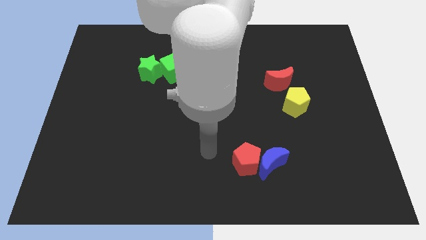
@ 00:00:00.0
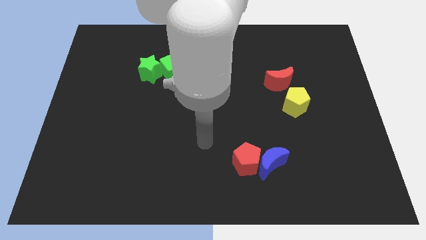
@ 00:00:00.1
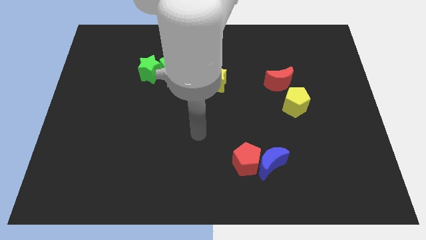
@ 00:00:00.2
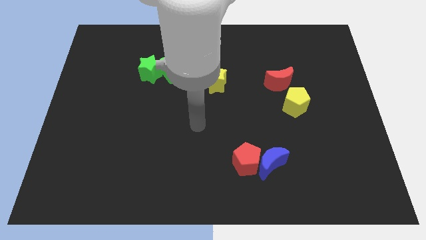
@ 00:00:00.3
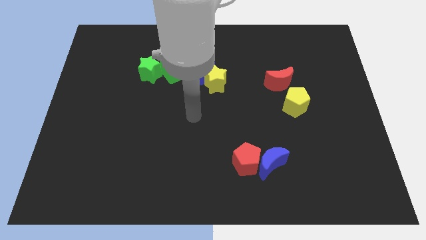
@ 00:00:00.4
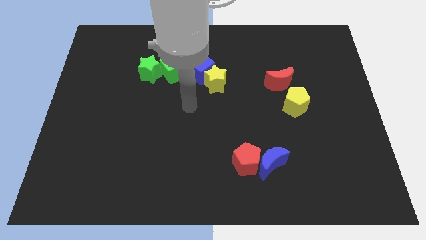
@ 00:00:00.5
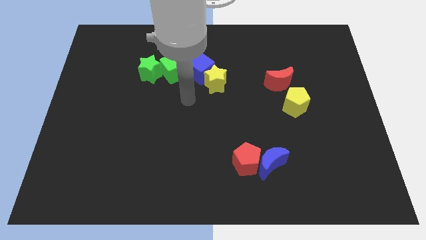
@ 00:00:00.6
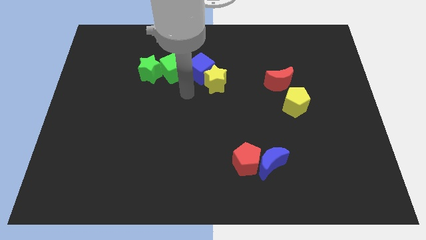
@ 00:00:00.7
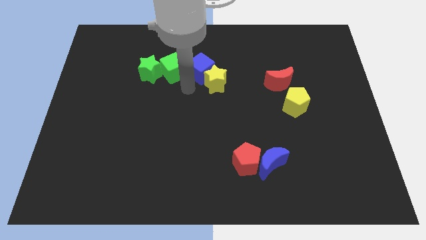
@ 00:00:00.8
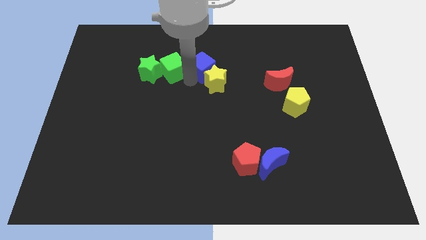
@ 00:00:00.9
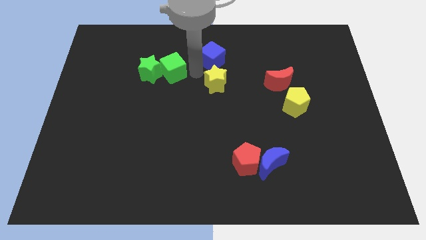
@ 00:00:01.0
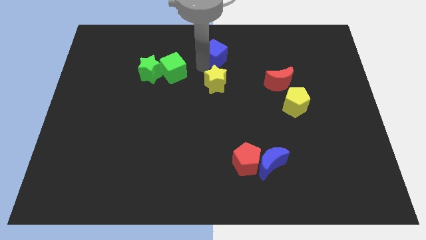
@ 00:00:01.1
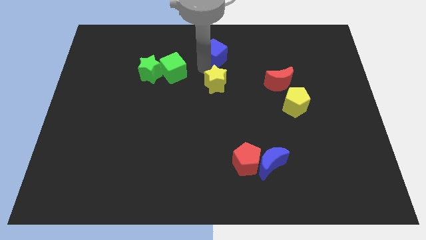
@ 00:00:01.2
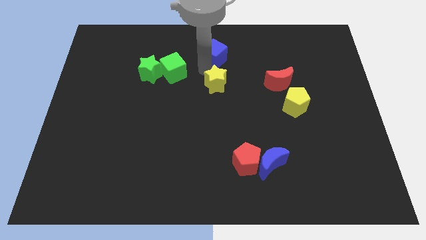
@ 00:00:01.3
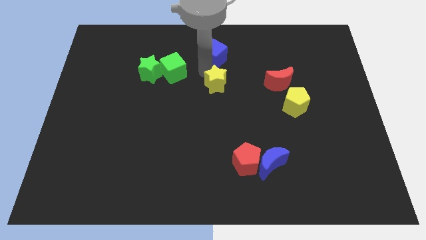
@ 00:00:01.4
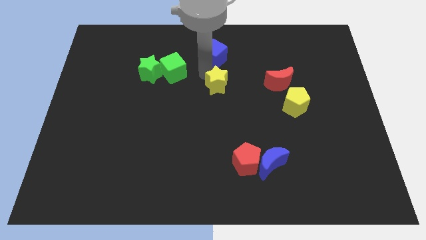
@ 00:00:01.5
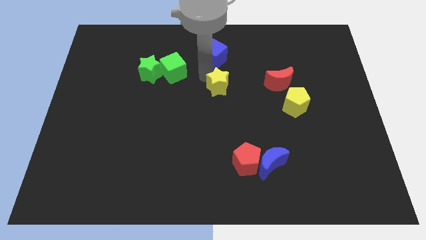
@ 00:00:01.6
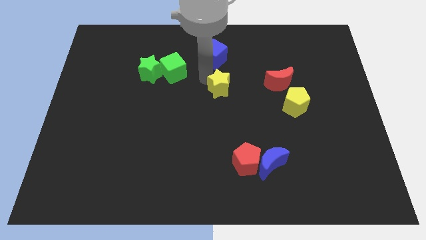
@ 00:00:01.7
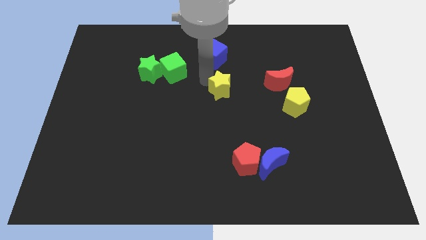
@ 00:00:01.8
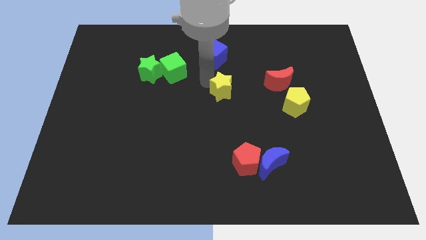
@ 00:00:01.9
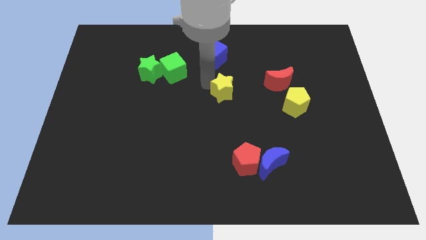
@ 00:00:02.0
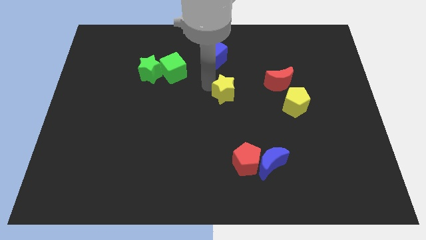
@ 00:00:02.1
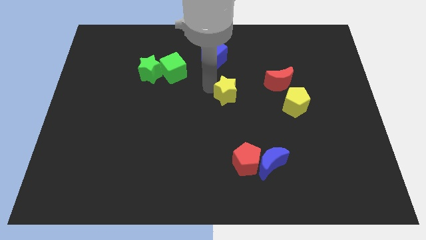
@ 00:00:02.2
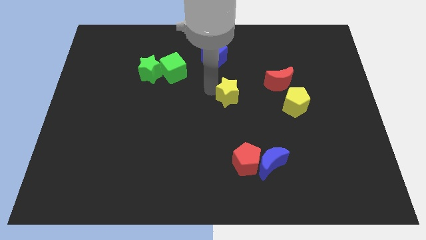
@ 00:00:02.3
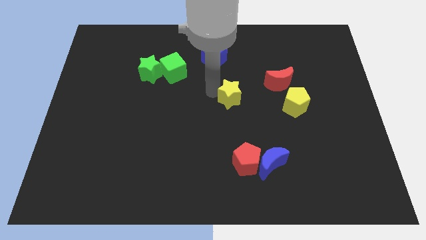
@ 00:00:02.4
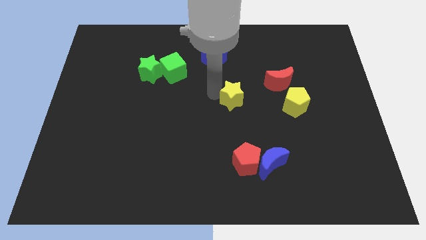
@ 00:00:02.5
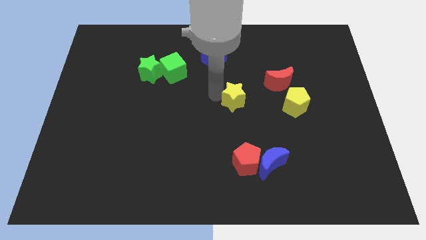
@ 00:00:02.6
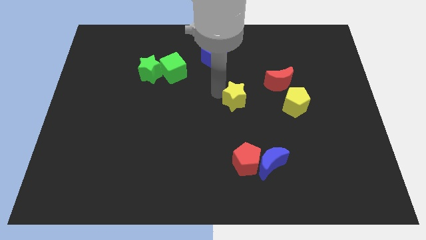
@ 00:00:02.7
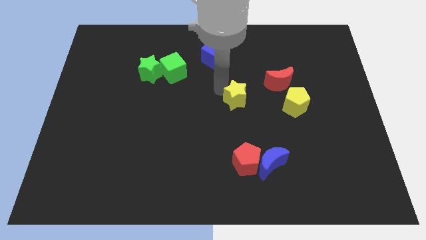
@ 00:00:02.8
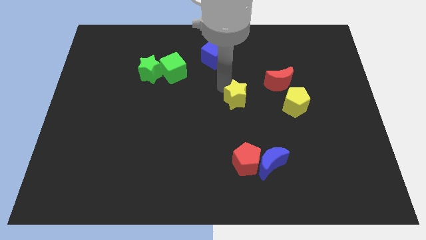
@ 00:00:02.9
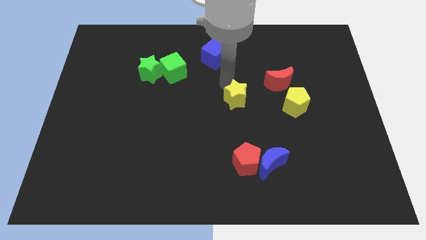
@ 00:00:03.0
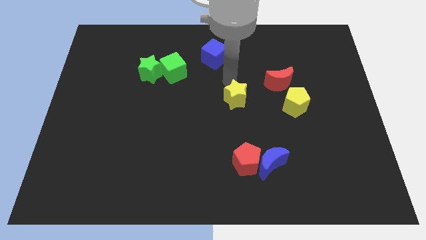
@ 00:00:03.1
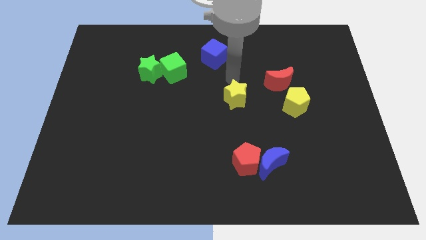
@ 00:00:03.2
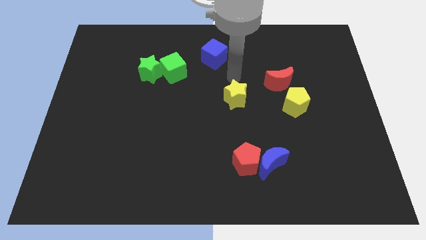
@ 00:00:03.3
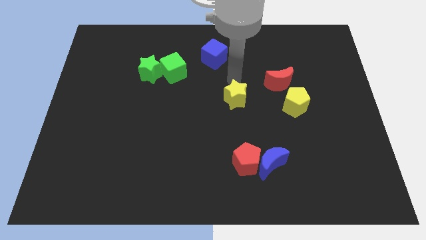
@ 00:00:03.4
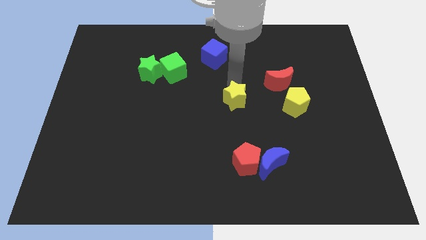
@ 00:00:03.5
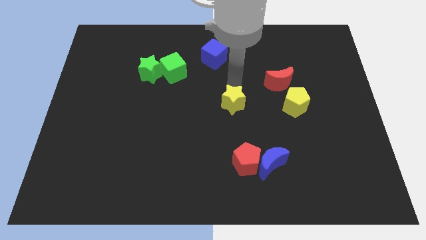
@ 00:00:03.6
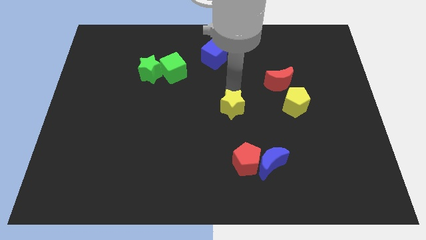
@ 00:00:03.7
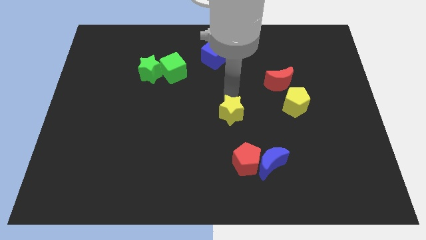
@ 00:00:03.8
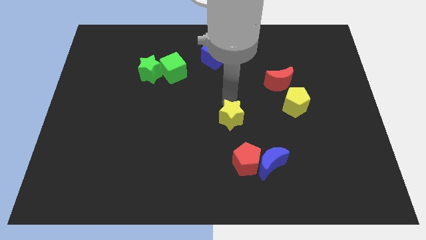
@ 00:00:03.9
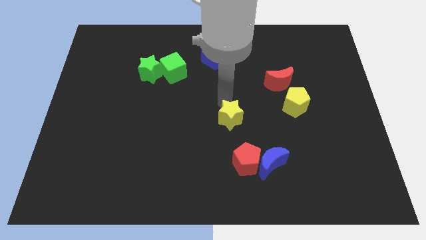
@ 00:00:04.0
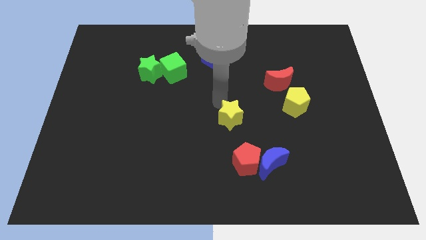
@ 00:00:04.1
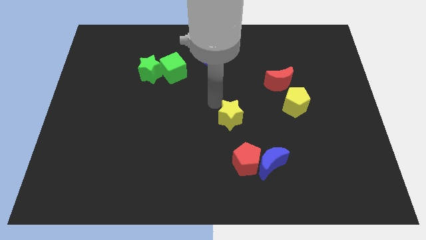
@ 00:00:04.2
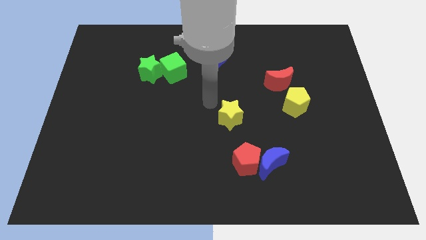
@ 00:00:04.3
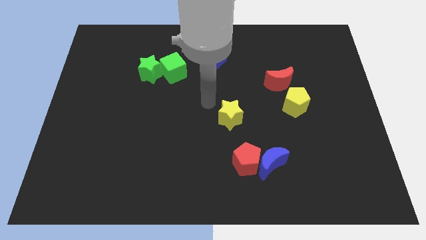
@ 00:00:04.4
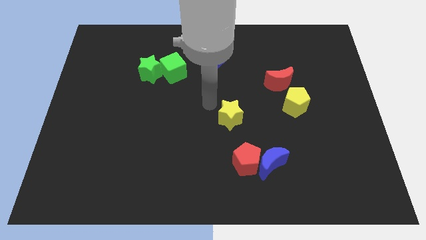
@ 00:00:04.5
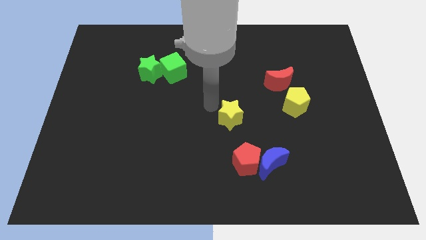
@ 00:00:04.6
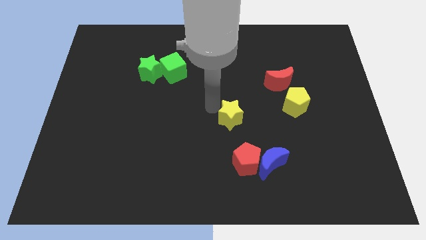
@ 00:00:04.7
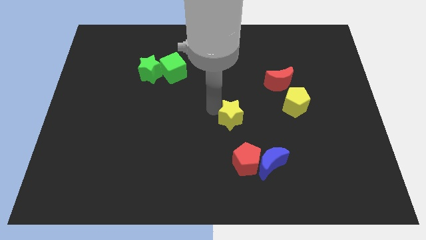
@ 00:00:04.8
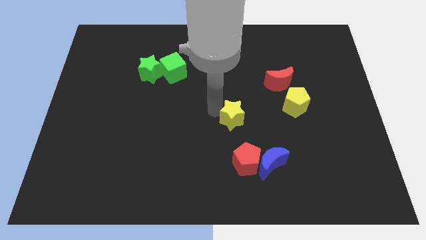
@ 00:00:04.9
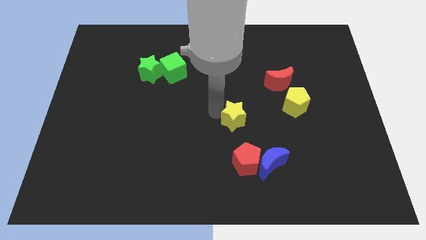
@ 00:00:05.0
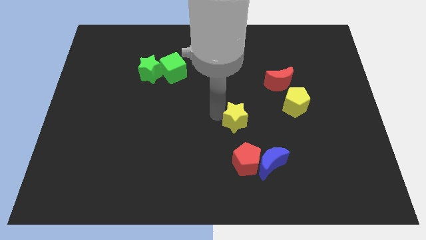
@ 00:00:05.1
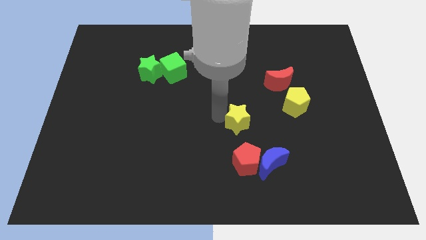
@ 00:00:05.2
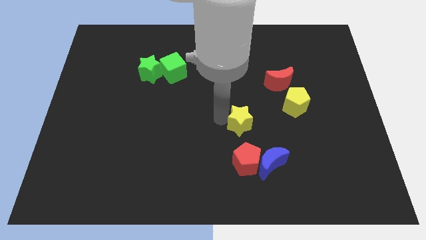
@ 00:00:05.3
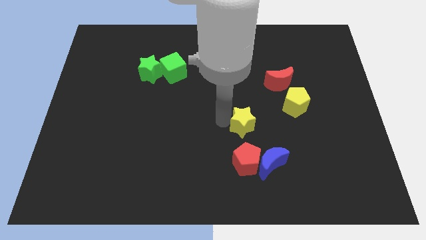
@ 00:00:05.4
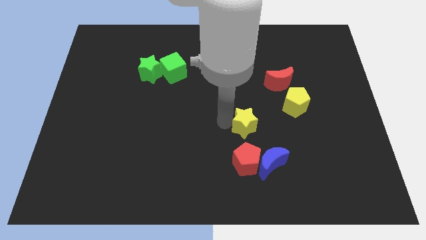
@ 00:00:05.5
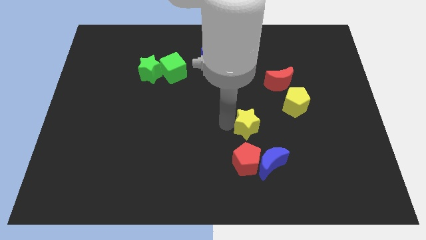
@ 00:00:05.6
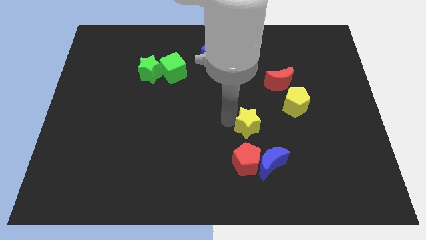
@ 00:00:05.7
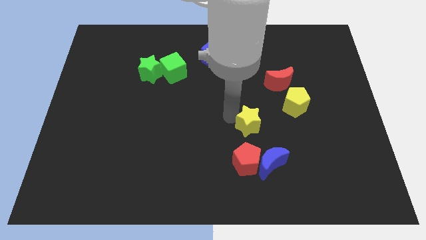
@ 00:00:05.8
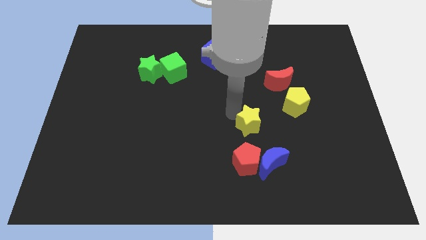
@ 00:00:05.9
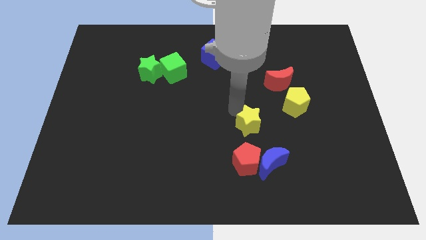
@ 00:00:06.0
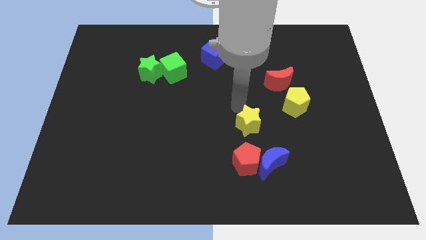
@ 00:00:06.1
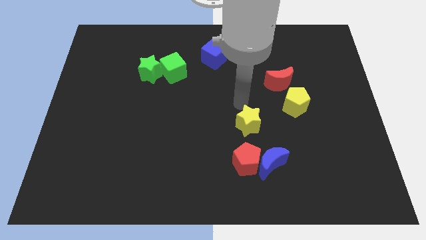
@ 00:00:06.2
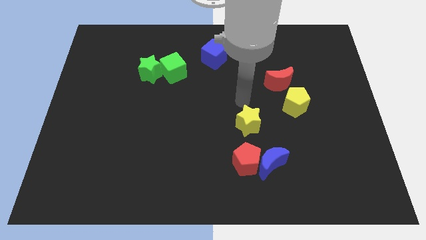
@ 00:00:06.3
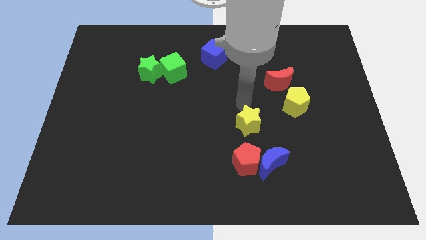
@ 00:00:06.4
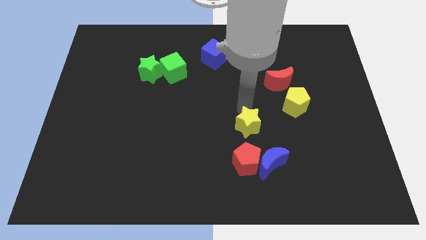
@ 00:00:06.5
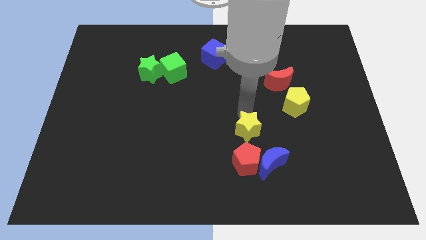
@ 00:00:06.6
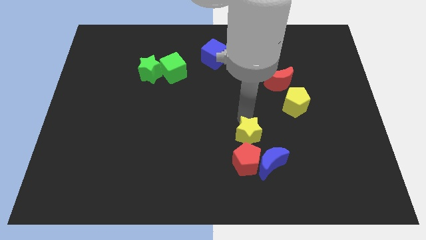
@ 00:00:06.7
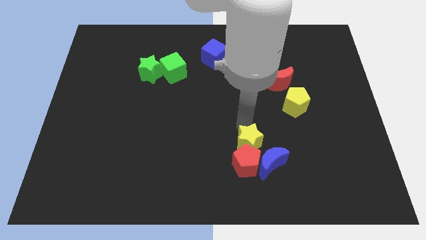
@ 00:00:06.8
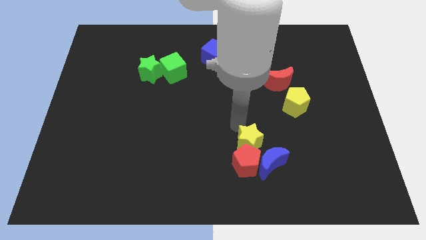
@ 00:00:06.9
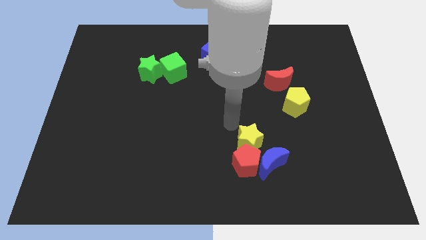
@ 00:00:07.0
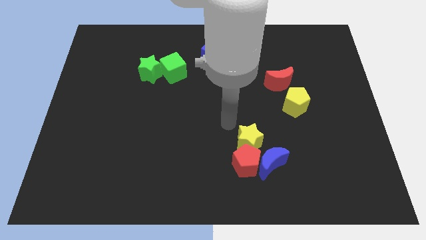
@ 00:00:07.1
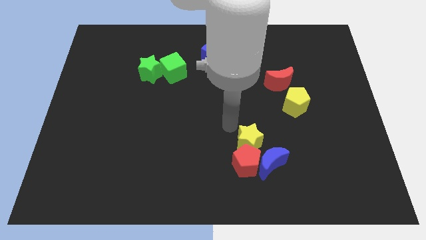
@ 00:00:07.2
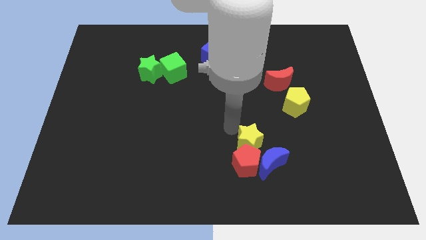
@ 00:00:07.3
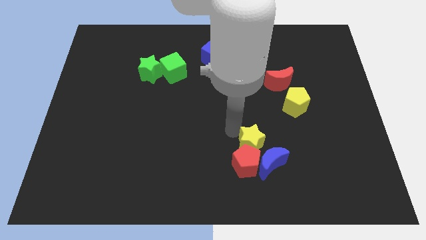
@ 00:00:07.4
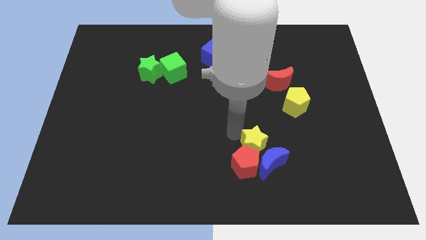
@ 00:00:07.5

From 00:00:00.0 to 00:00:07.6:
move the yellow star next to the blue moon
